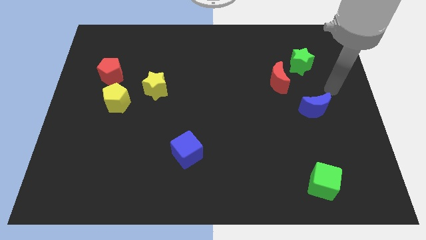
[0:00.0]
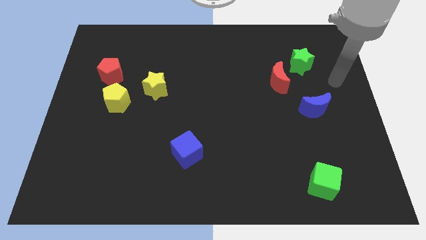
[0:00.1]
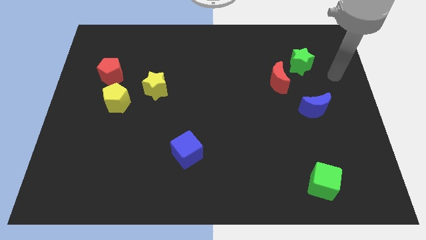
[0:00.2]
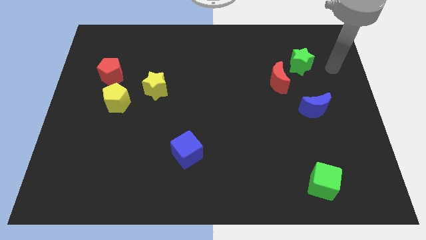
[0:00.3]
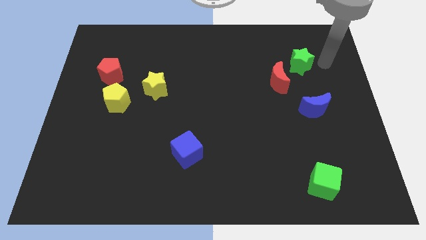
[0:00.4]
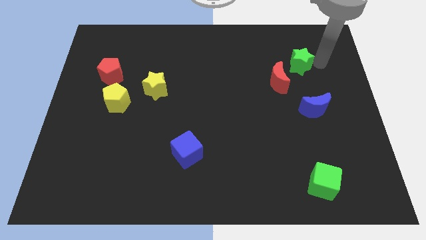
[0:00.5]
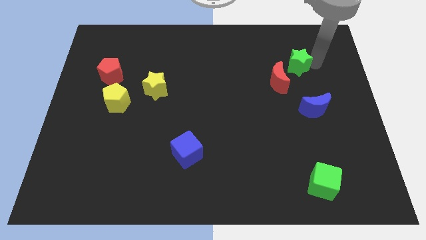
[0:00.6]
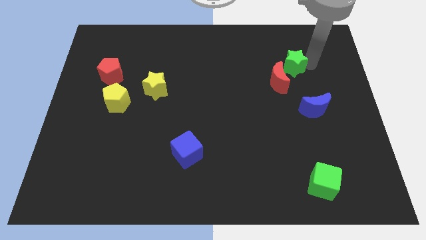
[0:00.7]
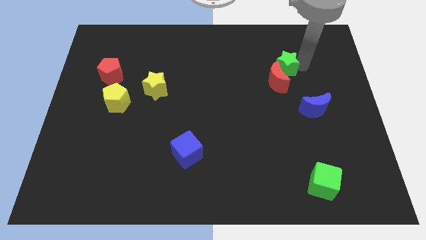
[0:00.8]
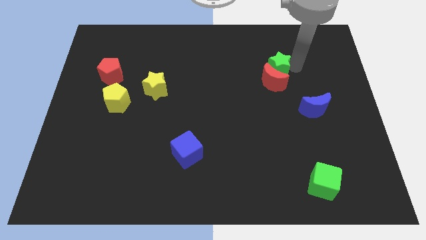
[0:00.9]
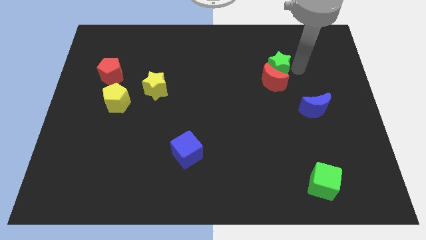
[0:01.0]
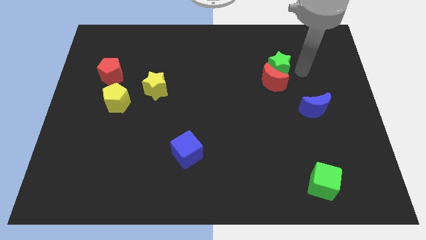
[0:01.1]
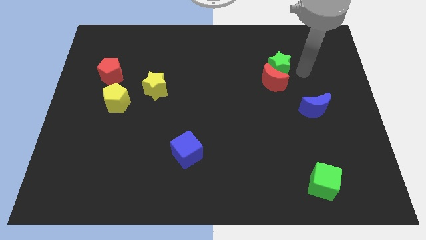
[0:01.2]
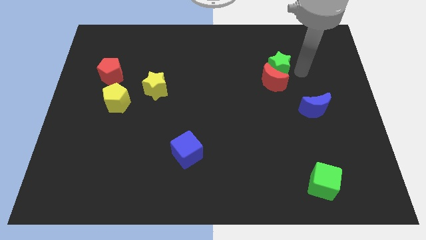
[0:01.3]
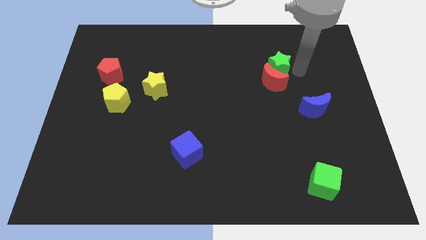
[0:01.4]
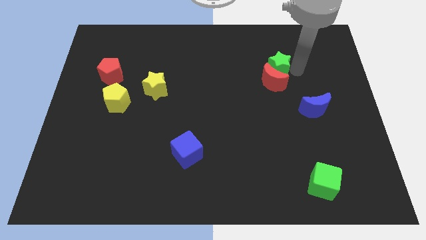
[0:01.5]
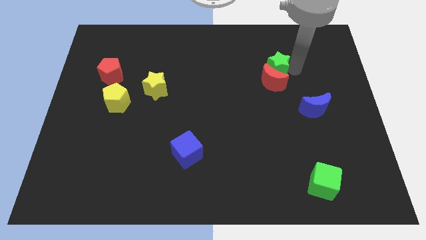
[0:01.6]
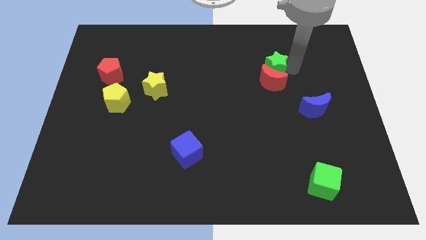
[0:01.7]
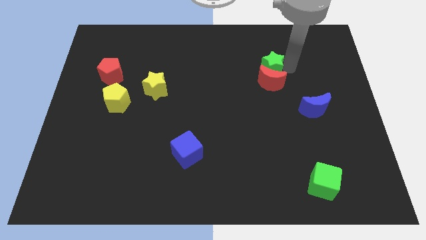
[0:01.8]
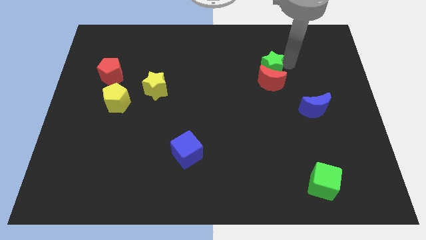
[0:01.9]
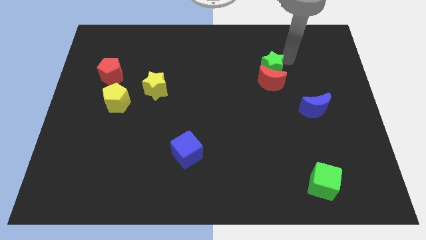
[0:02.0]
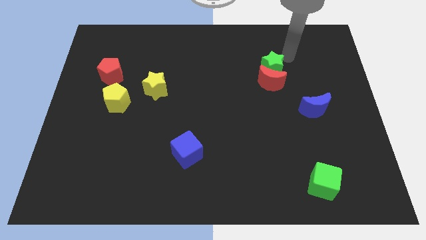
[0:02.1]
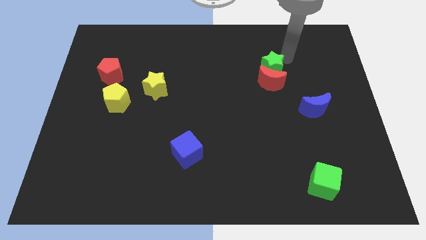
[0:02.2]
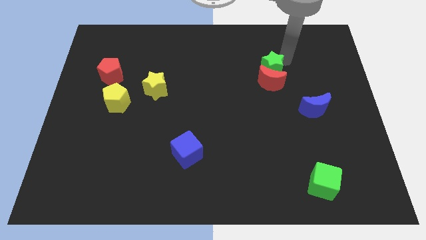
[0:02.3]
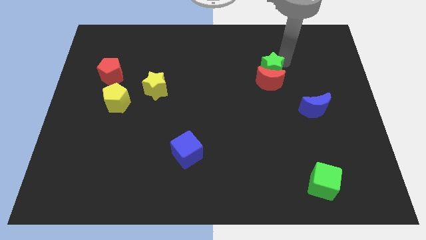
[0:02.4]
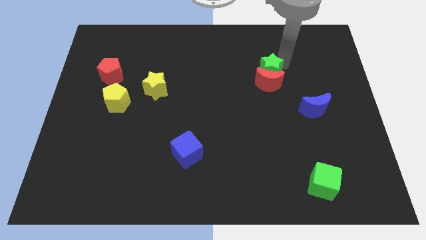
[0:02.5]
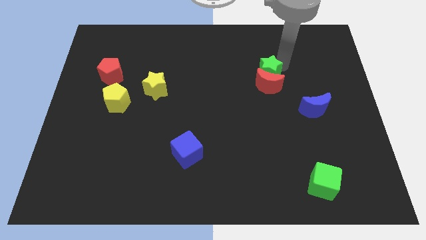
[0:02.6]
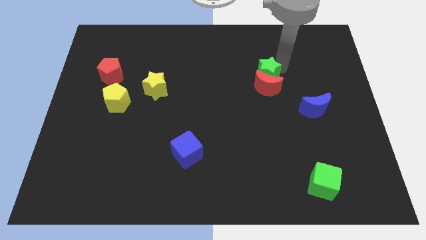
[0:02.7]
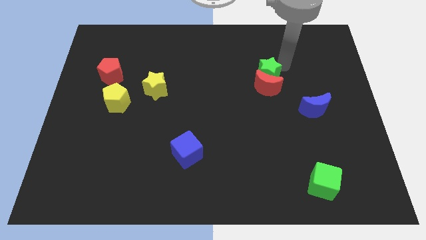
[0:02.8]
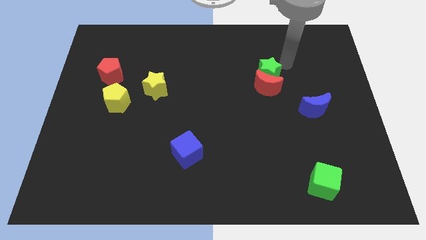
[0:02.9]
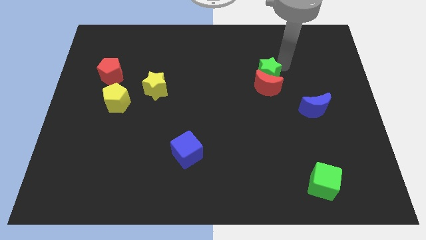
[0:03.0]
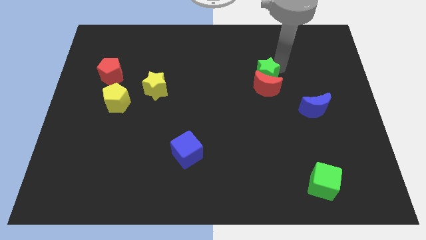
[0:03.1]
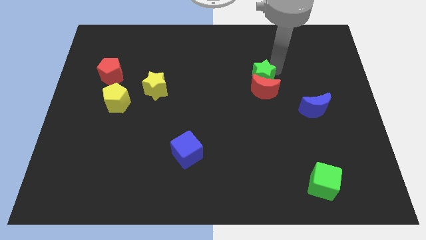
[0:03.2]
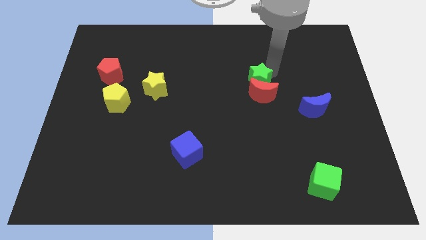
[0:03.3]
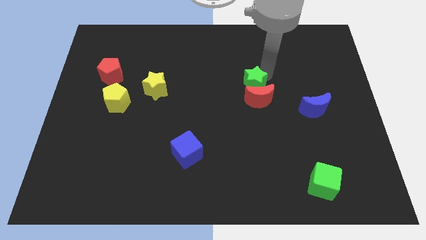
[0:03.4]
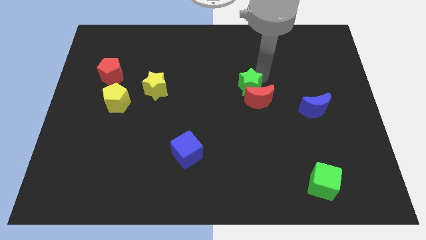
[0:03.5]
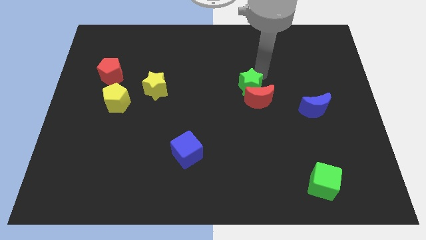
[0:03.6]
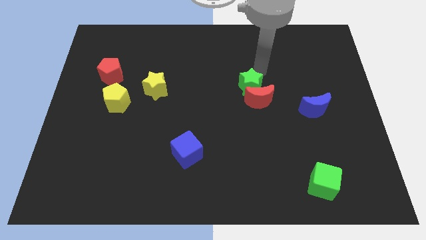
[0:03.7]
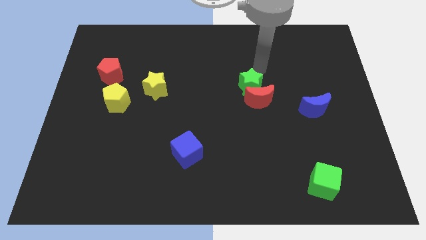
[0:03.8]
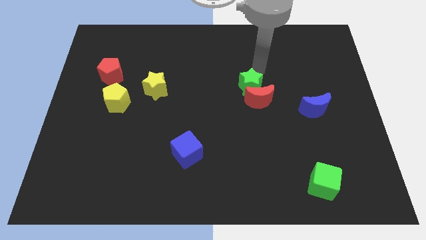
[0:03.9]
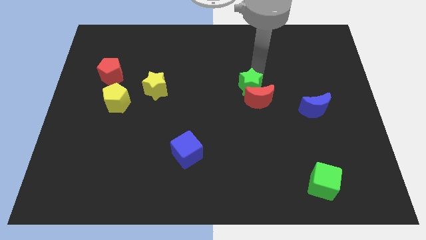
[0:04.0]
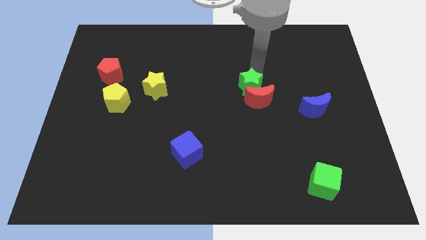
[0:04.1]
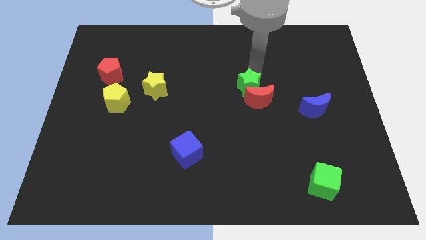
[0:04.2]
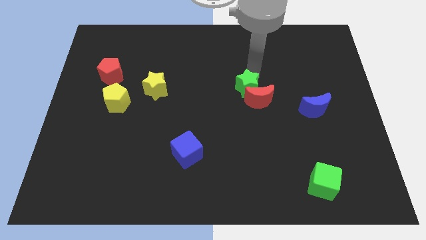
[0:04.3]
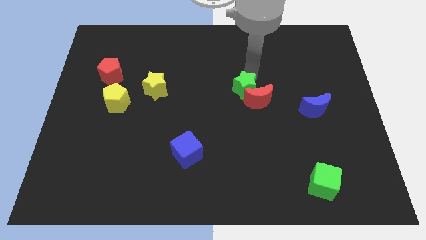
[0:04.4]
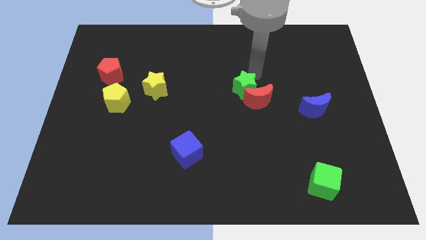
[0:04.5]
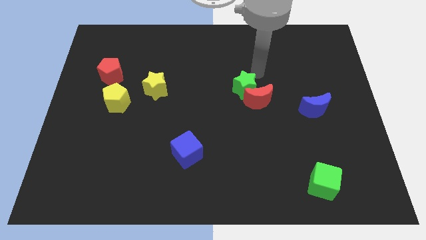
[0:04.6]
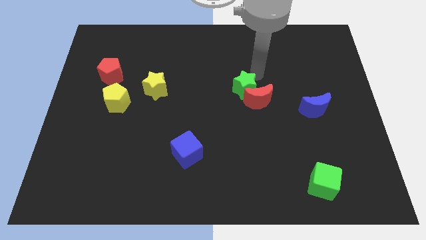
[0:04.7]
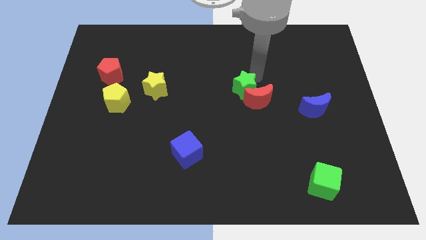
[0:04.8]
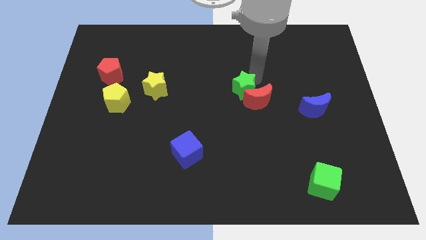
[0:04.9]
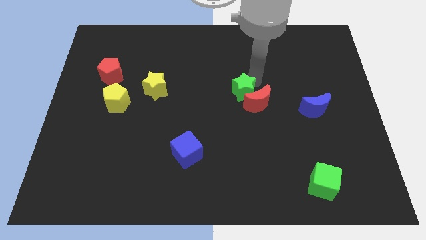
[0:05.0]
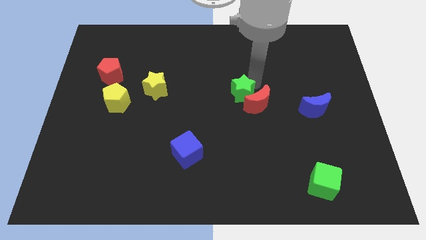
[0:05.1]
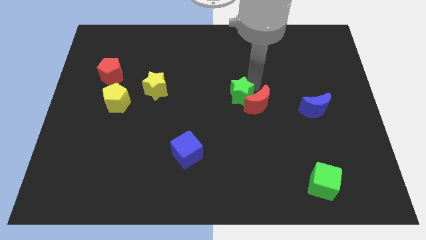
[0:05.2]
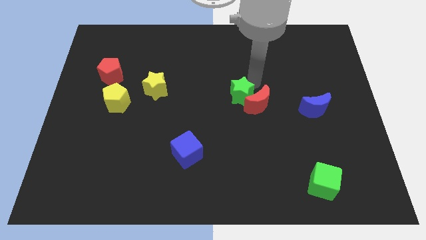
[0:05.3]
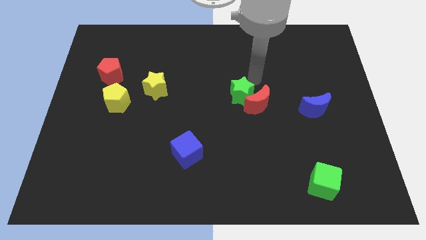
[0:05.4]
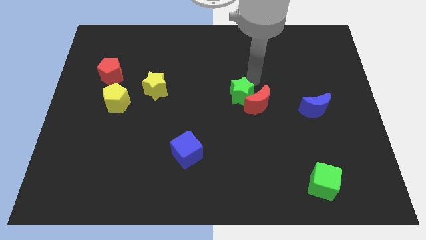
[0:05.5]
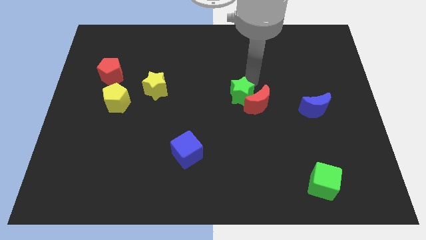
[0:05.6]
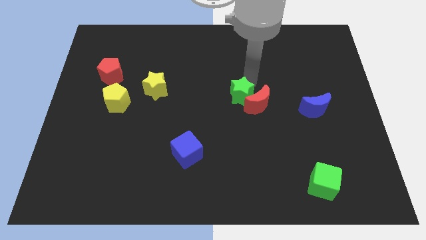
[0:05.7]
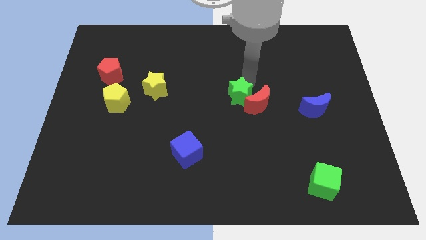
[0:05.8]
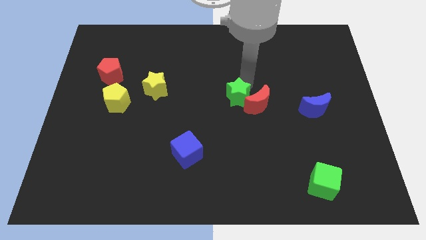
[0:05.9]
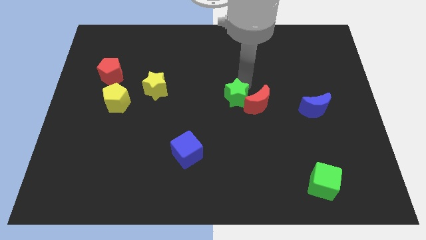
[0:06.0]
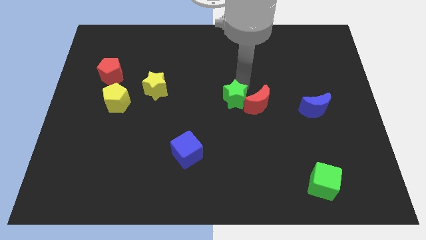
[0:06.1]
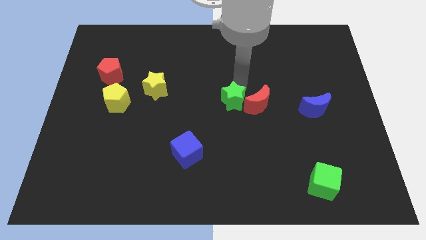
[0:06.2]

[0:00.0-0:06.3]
slide the green star down and then left

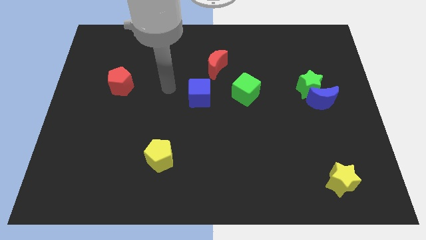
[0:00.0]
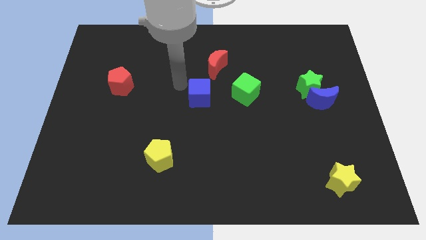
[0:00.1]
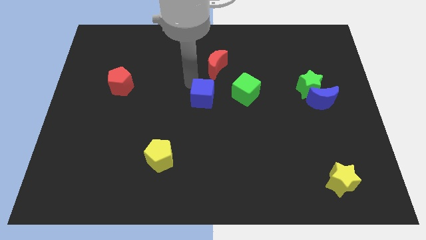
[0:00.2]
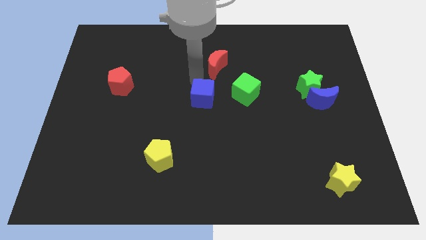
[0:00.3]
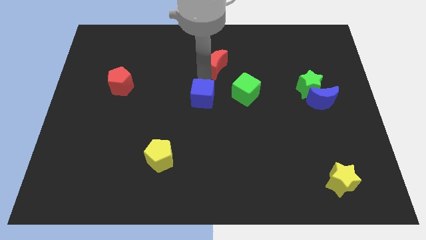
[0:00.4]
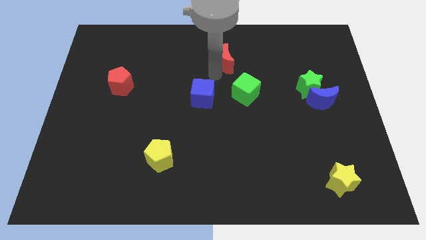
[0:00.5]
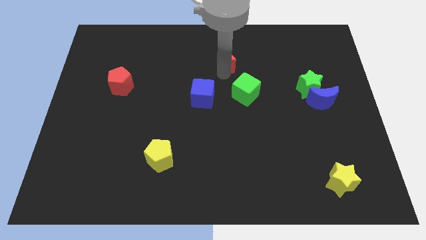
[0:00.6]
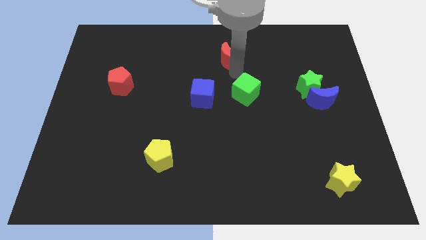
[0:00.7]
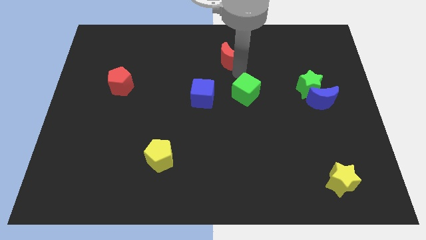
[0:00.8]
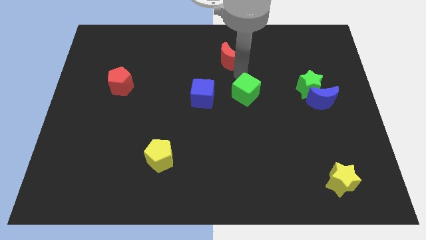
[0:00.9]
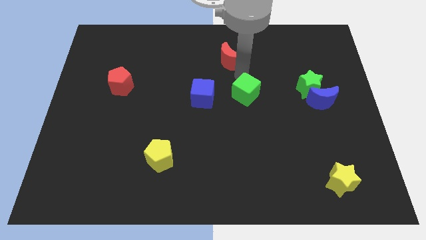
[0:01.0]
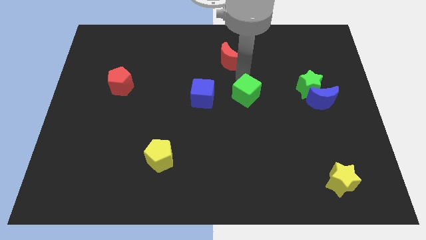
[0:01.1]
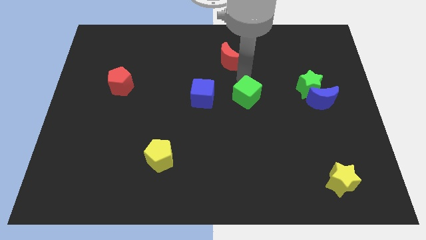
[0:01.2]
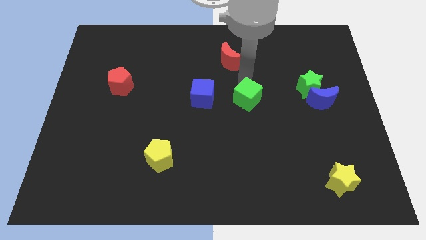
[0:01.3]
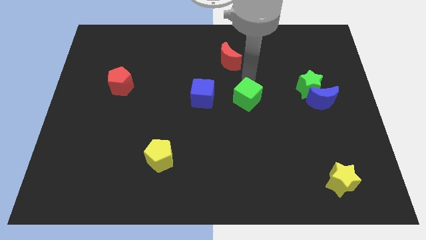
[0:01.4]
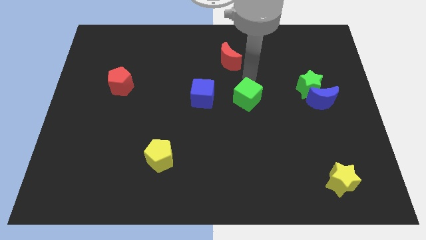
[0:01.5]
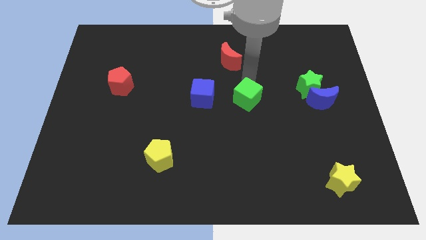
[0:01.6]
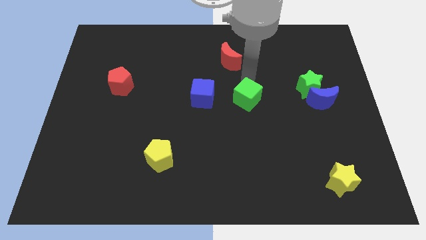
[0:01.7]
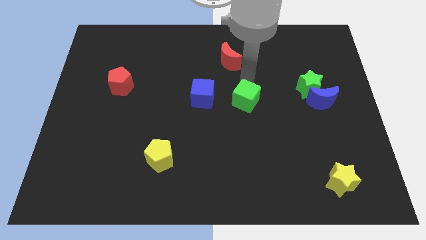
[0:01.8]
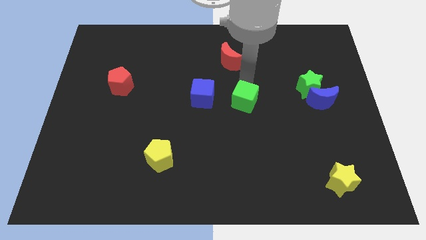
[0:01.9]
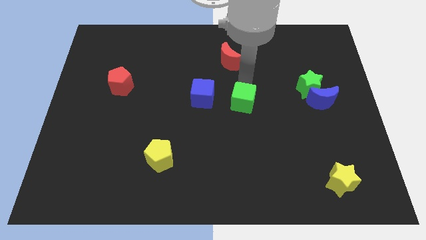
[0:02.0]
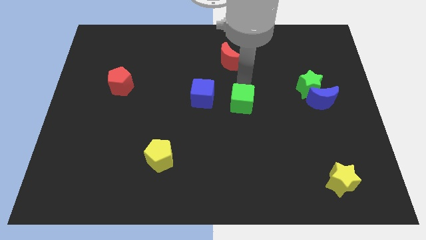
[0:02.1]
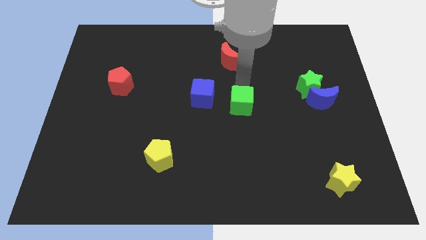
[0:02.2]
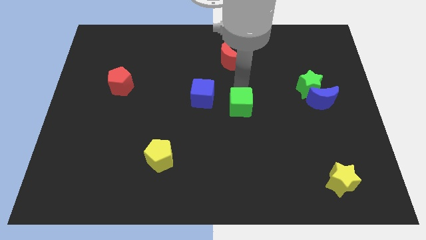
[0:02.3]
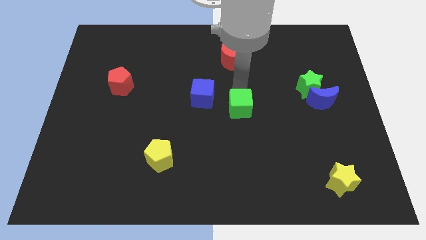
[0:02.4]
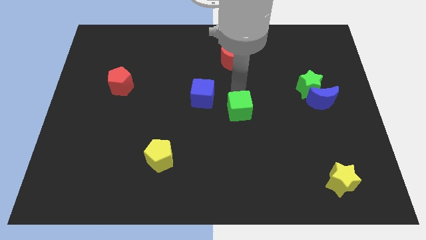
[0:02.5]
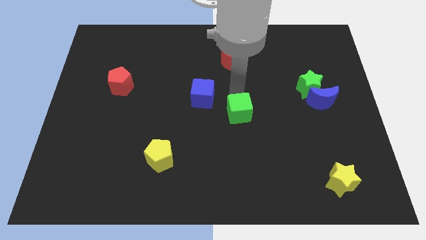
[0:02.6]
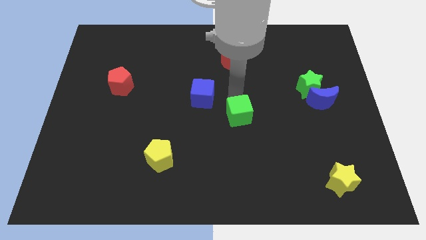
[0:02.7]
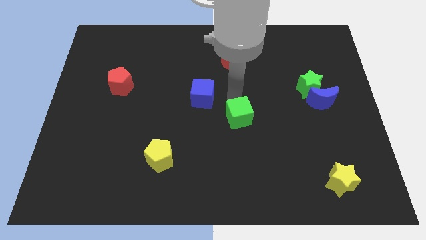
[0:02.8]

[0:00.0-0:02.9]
move the green cube down a little
